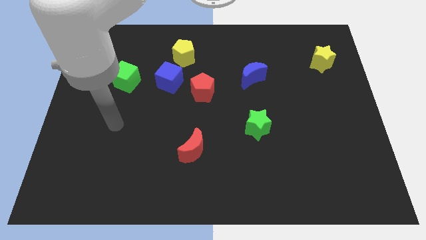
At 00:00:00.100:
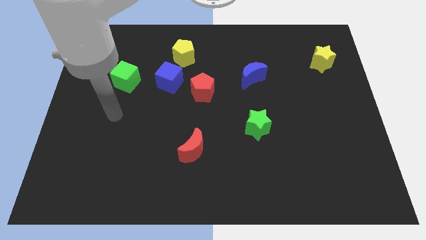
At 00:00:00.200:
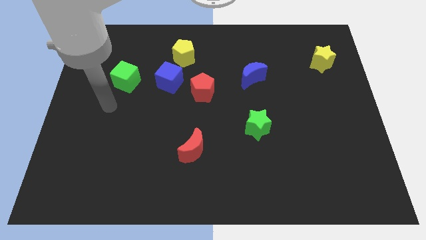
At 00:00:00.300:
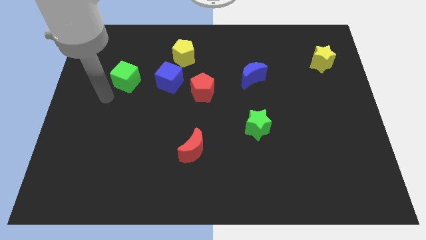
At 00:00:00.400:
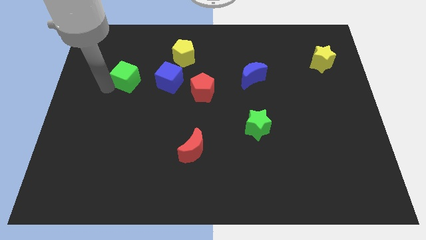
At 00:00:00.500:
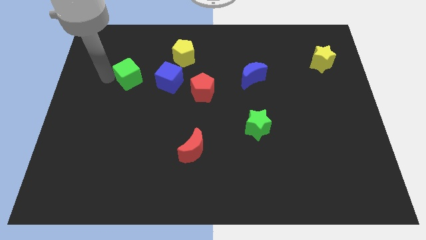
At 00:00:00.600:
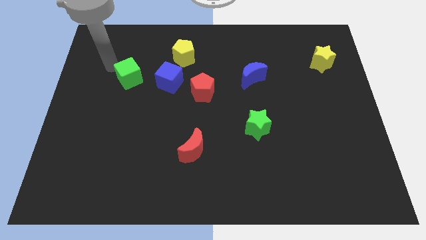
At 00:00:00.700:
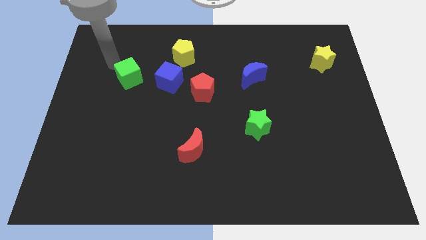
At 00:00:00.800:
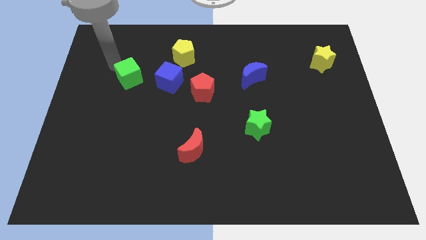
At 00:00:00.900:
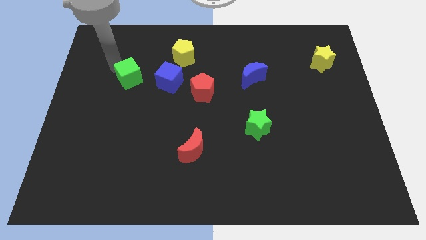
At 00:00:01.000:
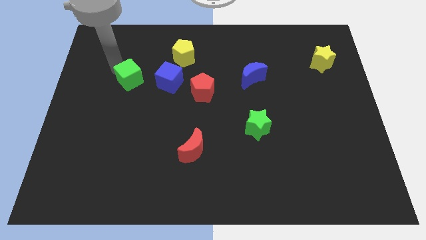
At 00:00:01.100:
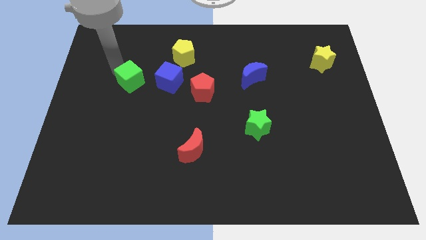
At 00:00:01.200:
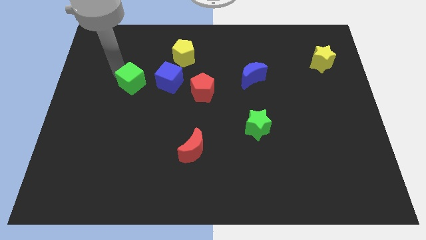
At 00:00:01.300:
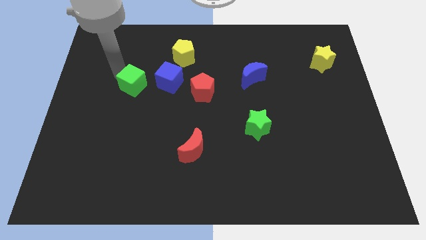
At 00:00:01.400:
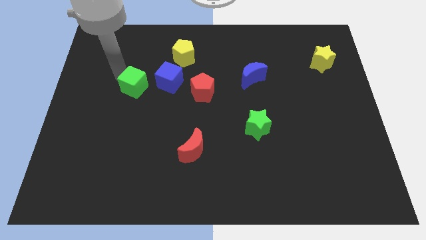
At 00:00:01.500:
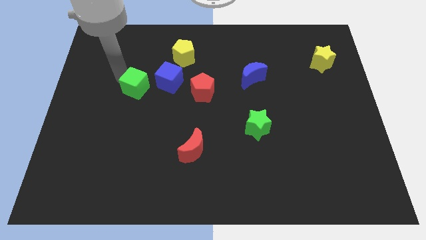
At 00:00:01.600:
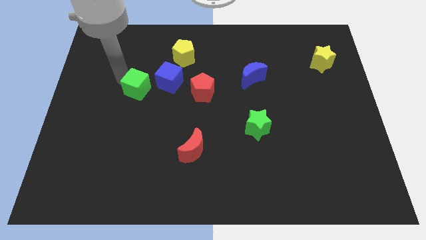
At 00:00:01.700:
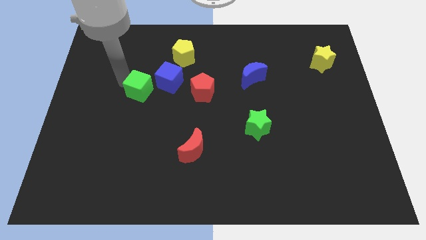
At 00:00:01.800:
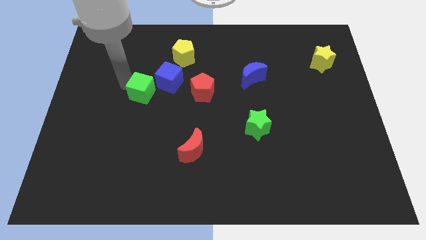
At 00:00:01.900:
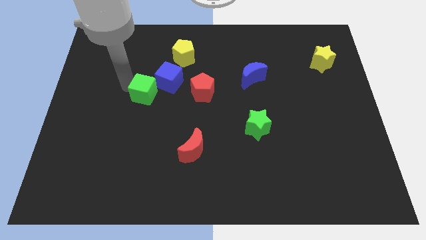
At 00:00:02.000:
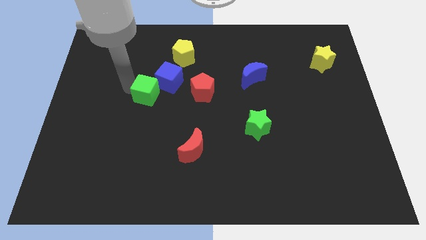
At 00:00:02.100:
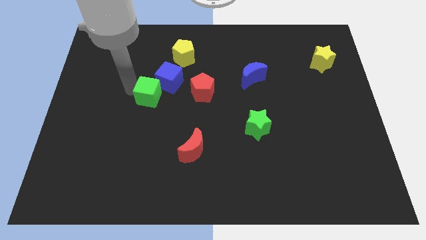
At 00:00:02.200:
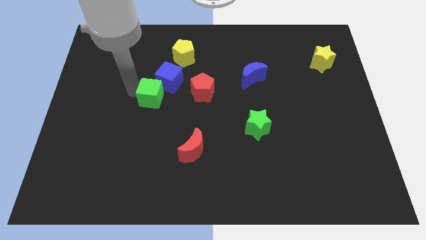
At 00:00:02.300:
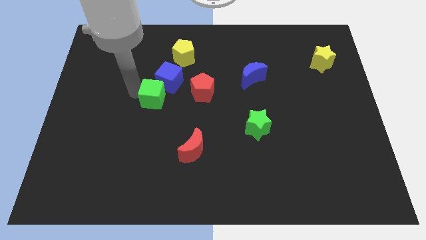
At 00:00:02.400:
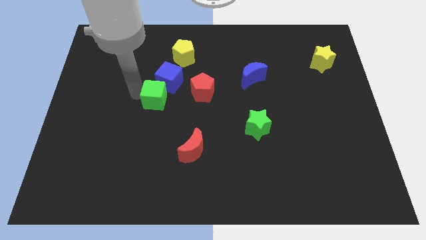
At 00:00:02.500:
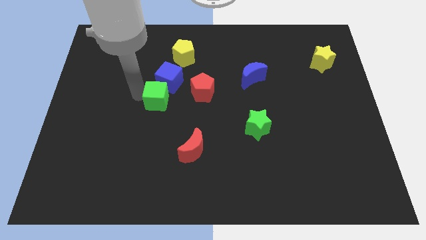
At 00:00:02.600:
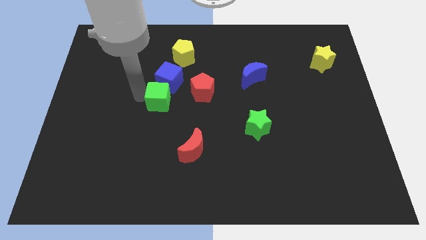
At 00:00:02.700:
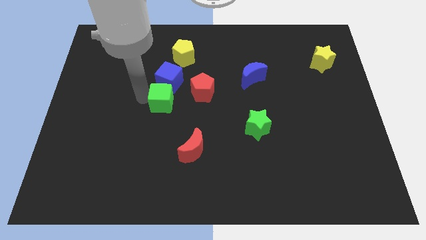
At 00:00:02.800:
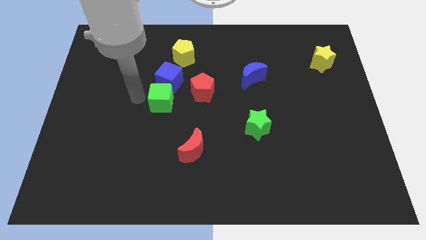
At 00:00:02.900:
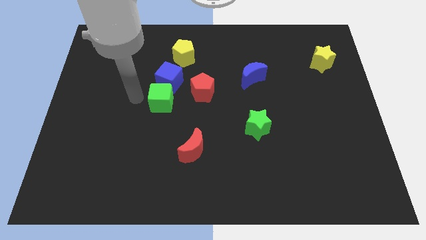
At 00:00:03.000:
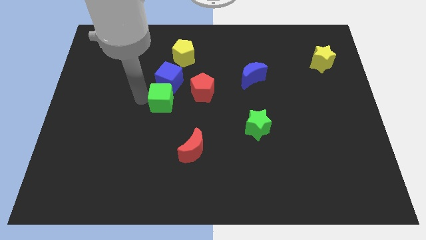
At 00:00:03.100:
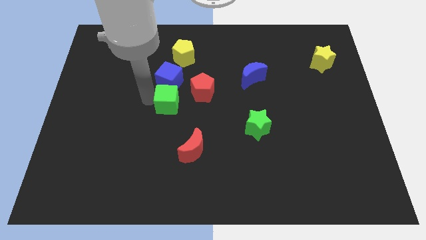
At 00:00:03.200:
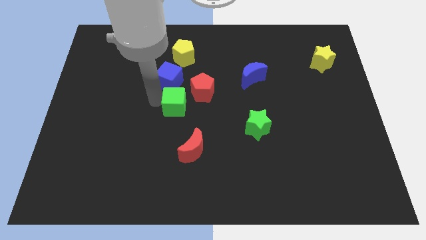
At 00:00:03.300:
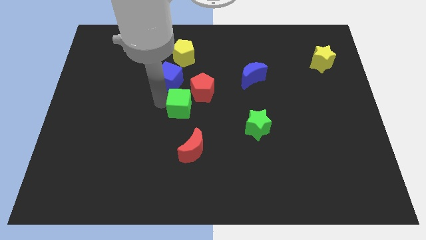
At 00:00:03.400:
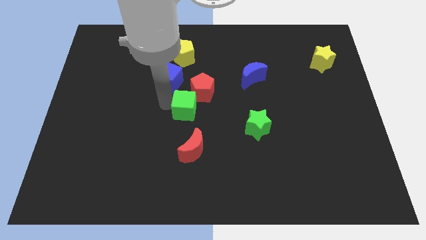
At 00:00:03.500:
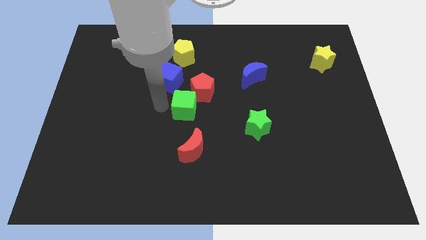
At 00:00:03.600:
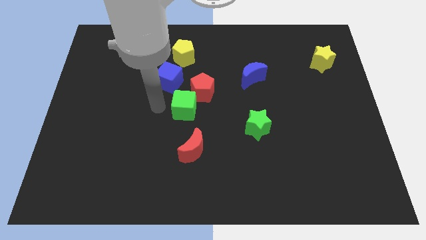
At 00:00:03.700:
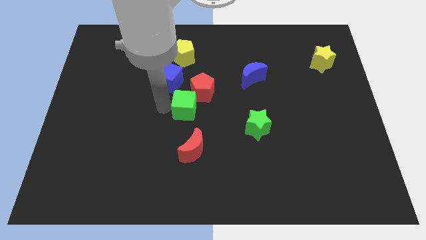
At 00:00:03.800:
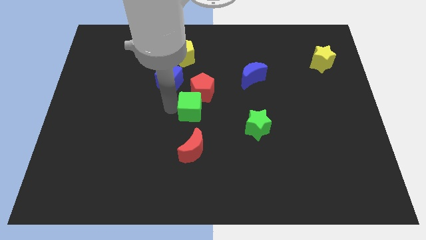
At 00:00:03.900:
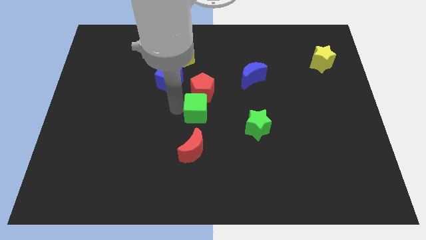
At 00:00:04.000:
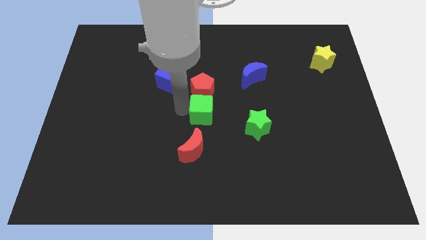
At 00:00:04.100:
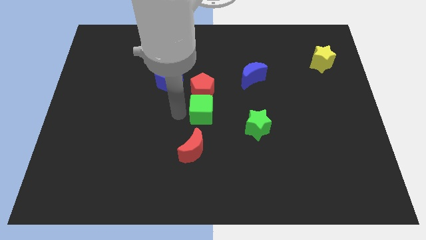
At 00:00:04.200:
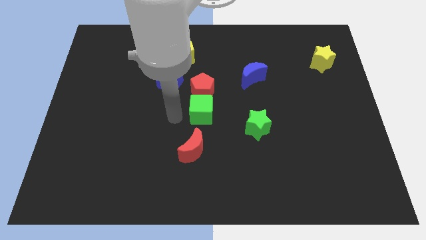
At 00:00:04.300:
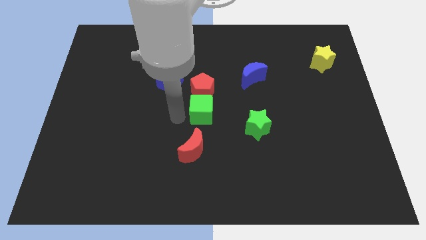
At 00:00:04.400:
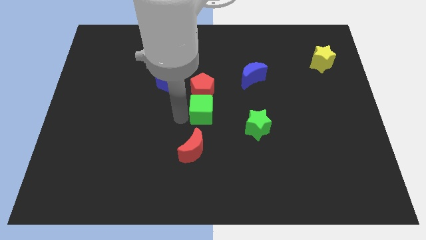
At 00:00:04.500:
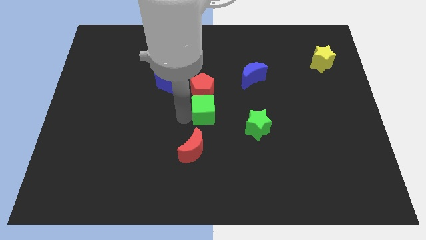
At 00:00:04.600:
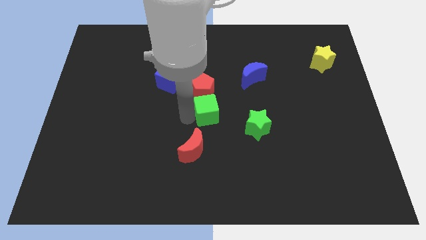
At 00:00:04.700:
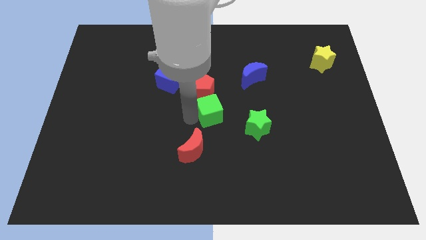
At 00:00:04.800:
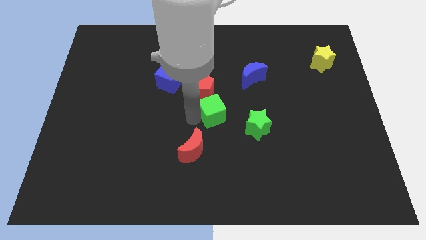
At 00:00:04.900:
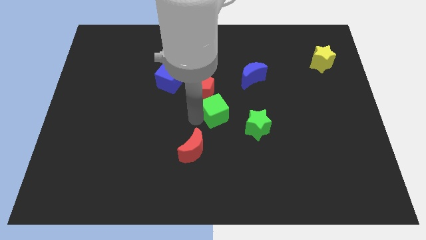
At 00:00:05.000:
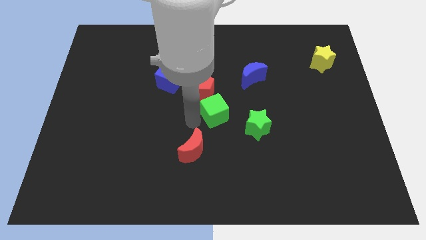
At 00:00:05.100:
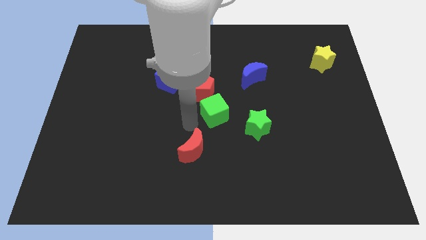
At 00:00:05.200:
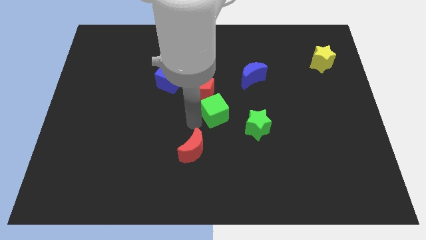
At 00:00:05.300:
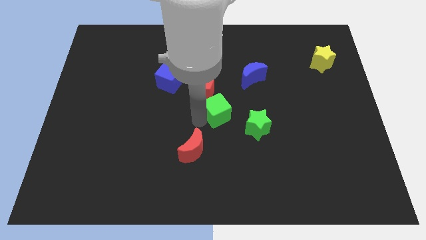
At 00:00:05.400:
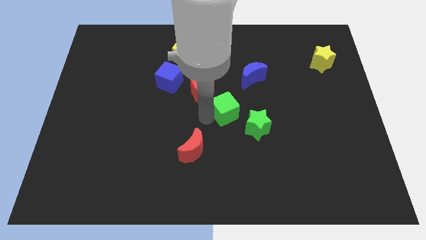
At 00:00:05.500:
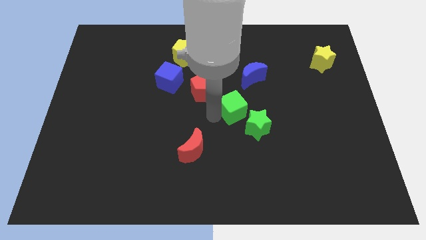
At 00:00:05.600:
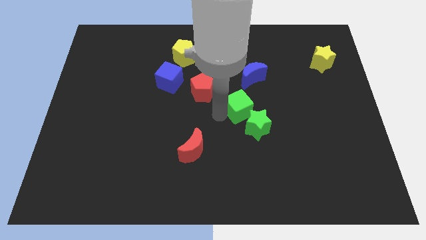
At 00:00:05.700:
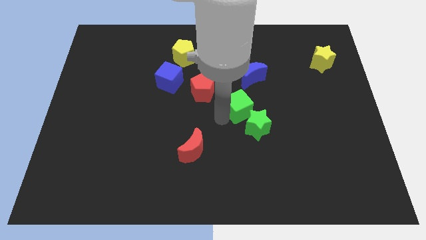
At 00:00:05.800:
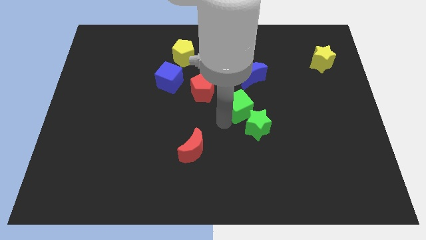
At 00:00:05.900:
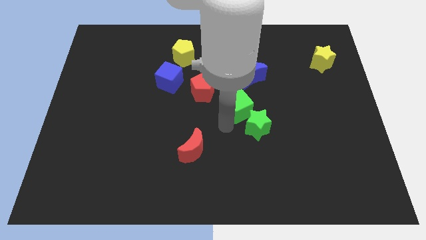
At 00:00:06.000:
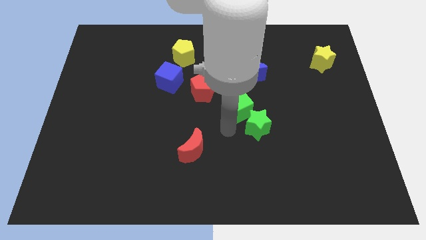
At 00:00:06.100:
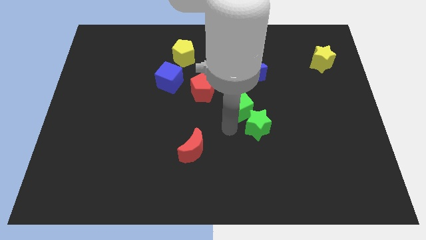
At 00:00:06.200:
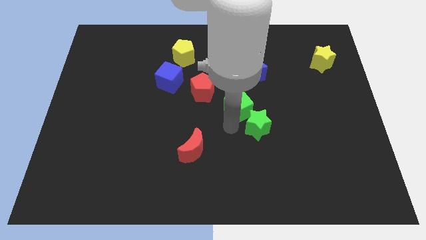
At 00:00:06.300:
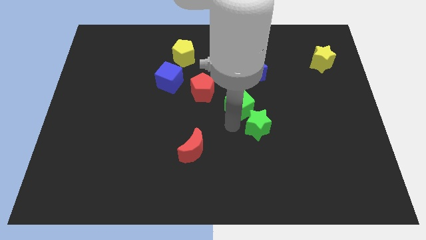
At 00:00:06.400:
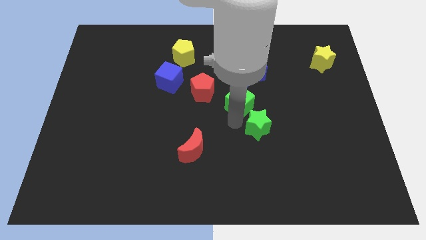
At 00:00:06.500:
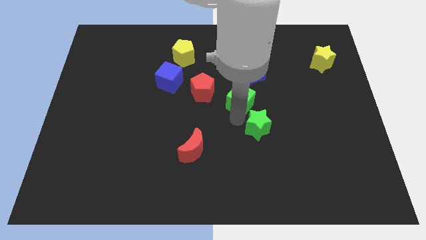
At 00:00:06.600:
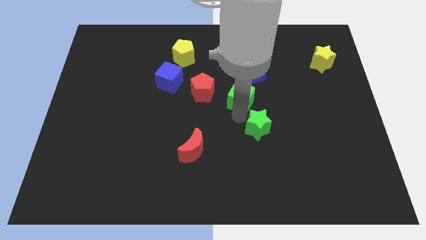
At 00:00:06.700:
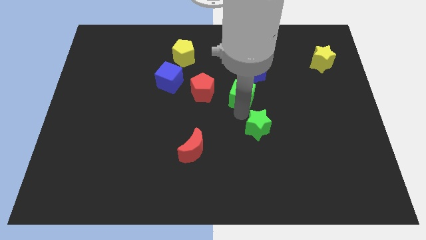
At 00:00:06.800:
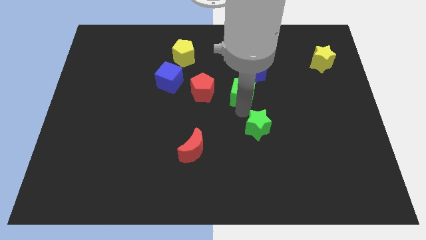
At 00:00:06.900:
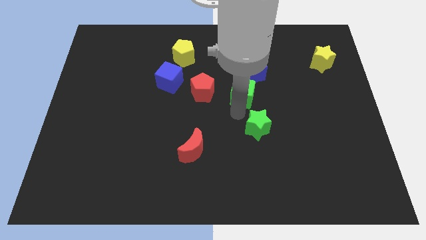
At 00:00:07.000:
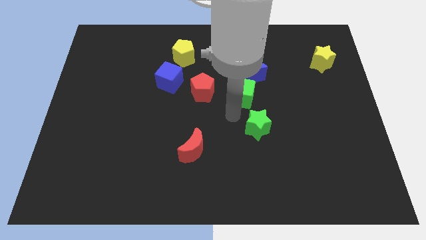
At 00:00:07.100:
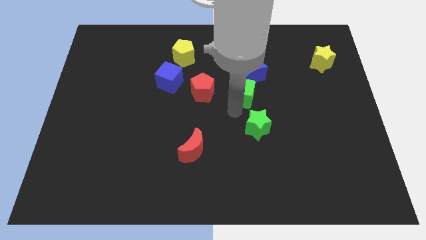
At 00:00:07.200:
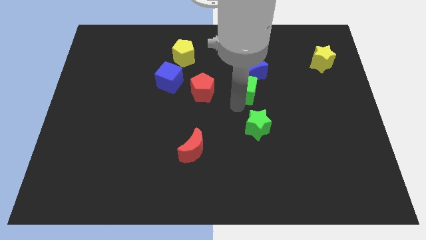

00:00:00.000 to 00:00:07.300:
slide the green cube to the blue moon
